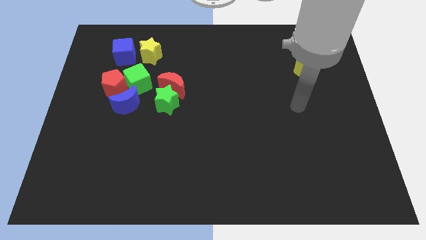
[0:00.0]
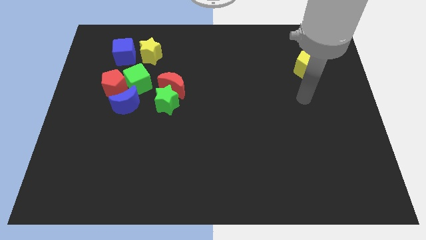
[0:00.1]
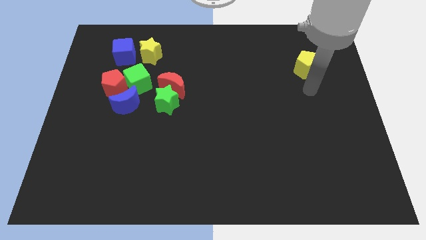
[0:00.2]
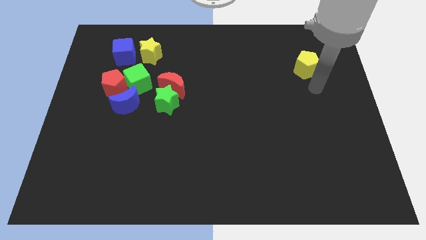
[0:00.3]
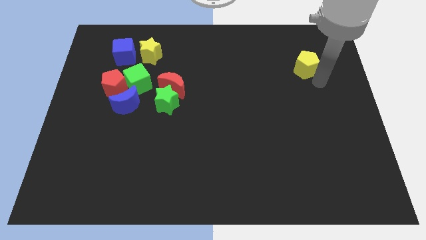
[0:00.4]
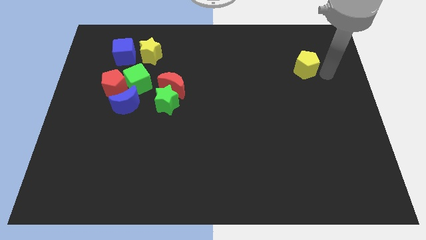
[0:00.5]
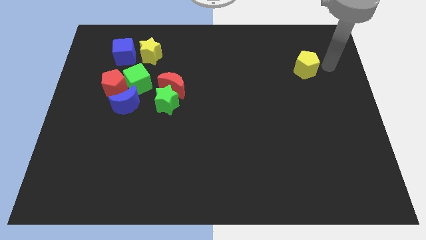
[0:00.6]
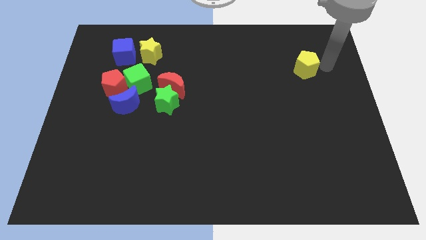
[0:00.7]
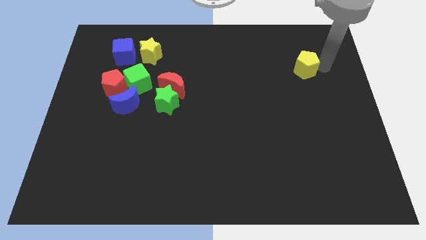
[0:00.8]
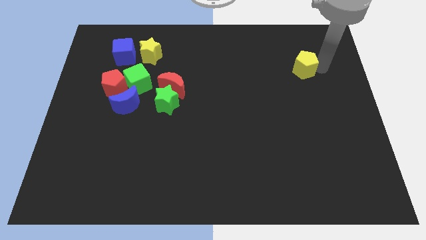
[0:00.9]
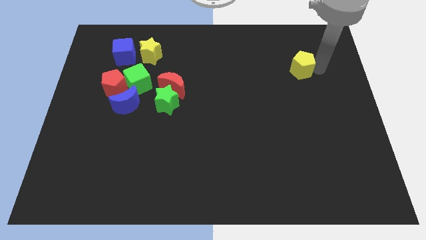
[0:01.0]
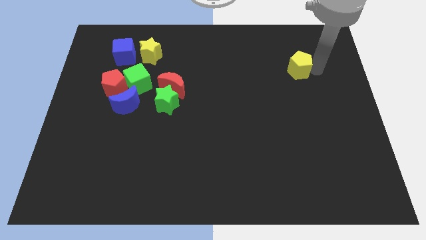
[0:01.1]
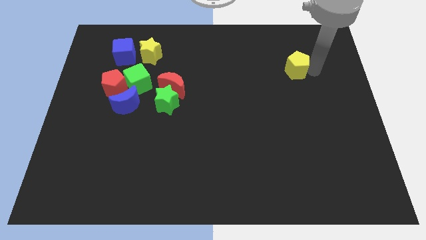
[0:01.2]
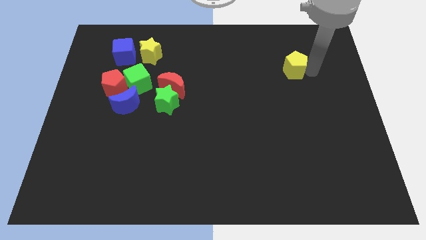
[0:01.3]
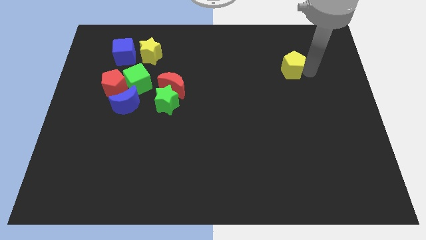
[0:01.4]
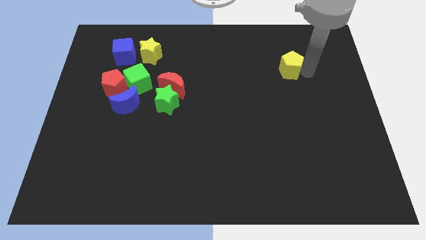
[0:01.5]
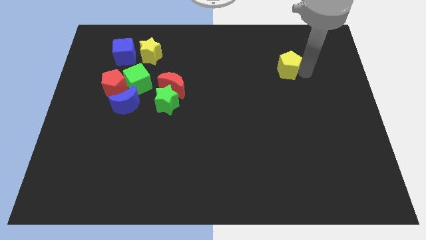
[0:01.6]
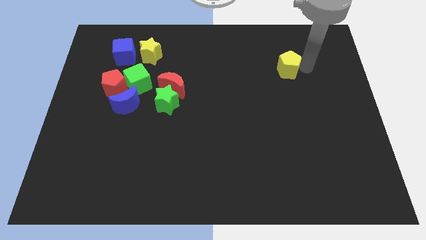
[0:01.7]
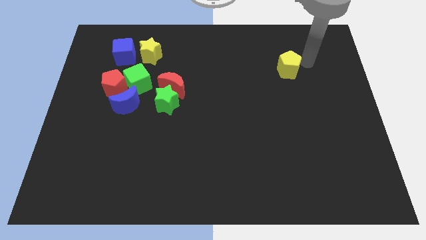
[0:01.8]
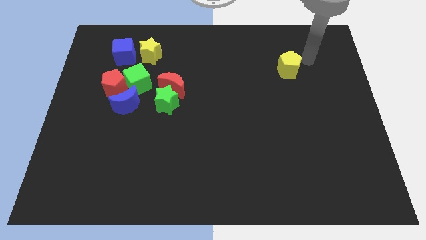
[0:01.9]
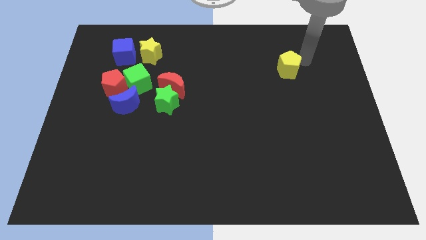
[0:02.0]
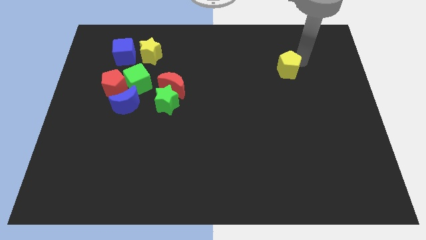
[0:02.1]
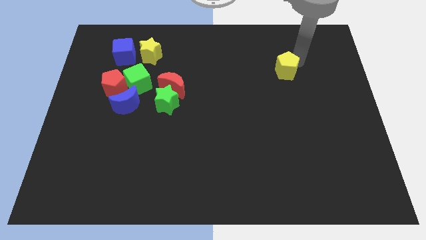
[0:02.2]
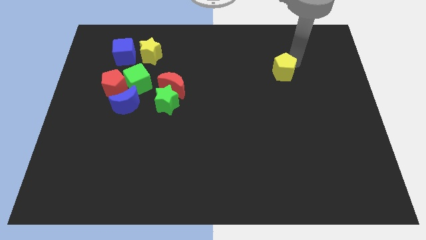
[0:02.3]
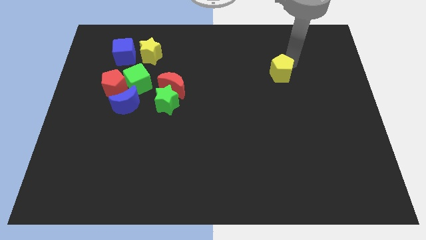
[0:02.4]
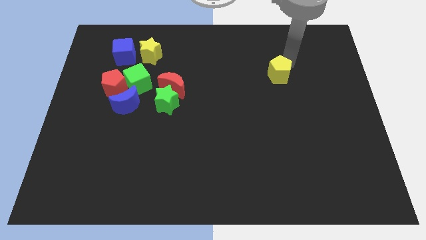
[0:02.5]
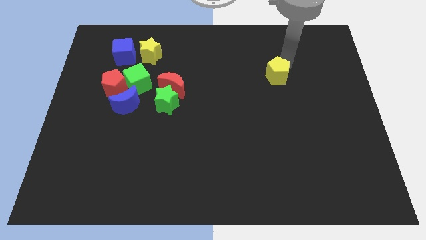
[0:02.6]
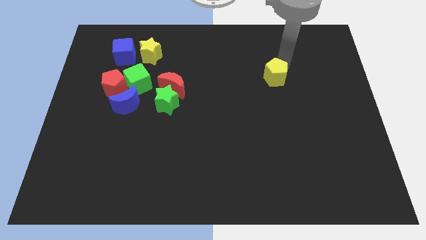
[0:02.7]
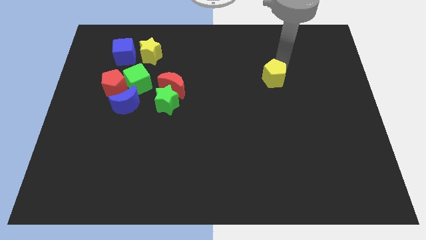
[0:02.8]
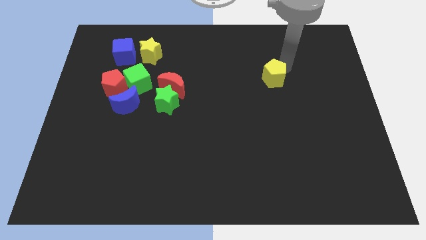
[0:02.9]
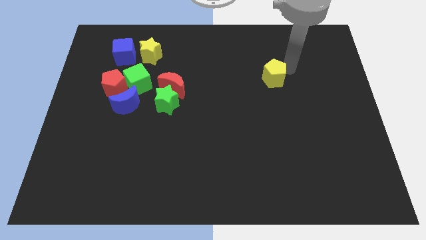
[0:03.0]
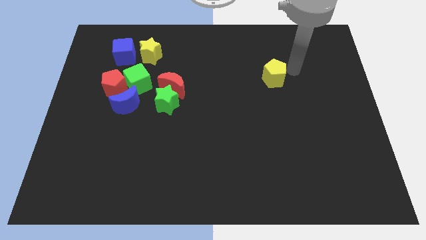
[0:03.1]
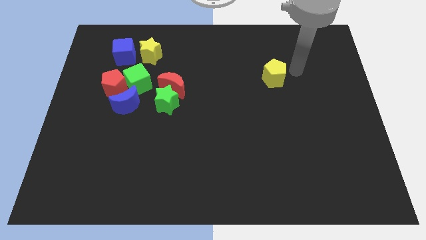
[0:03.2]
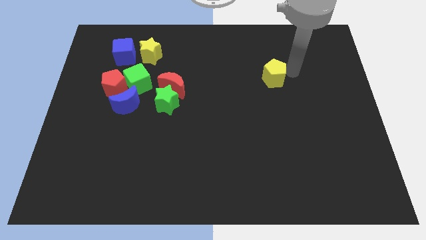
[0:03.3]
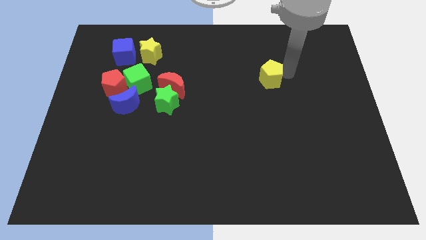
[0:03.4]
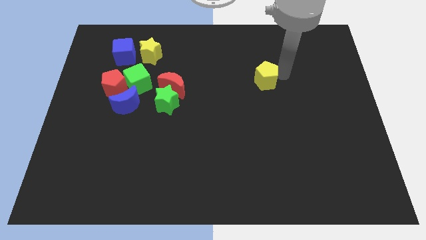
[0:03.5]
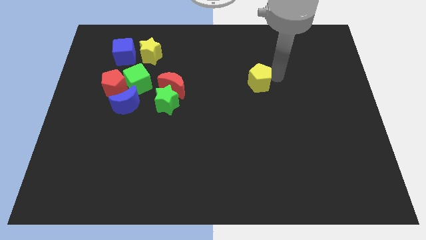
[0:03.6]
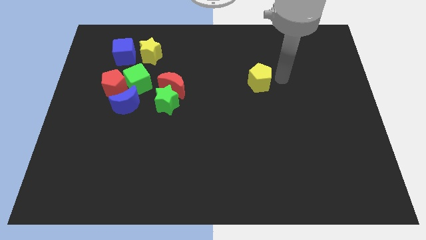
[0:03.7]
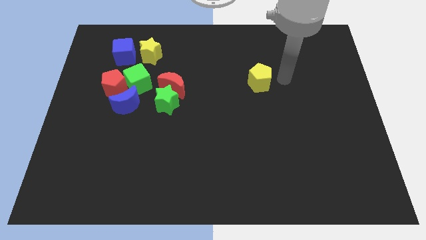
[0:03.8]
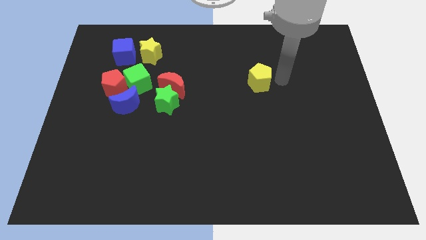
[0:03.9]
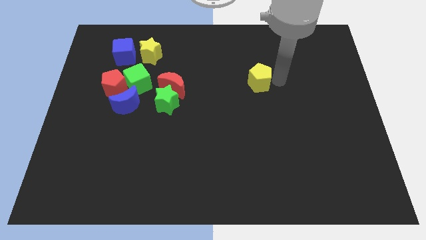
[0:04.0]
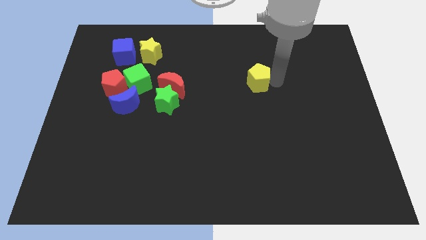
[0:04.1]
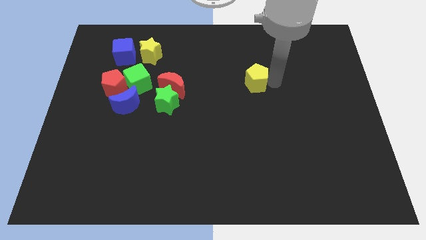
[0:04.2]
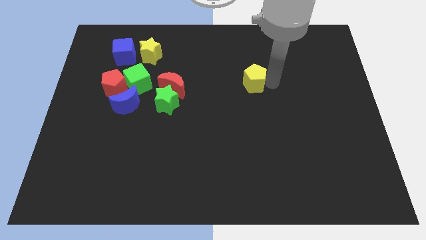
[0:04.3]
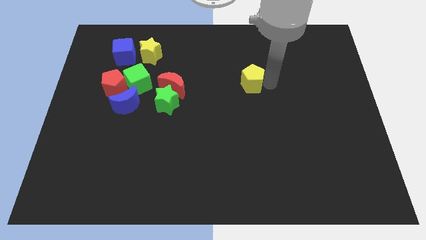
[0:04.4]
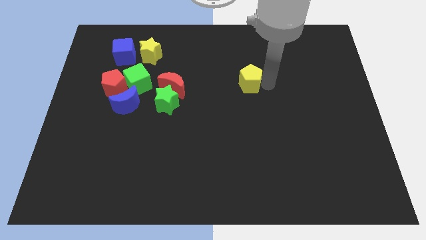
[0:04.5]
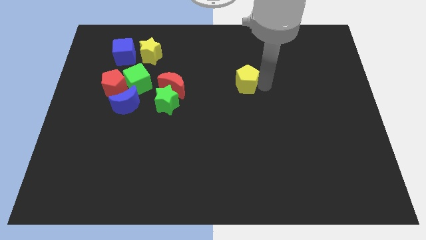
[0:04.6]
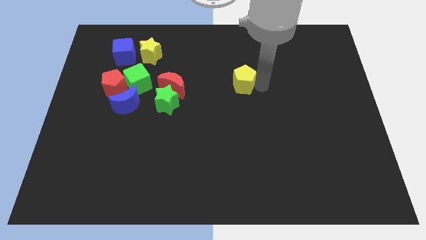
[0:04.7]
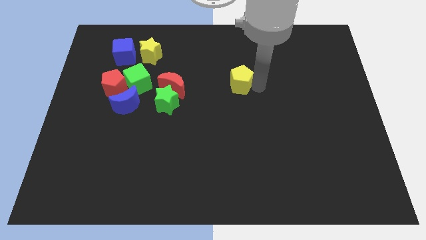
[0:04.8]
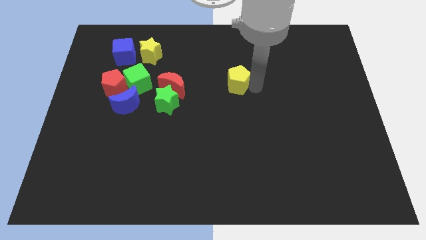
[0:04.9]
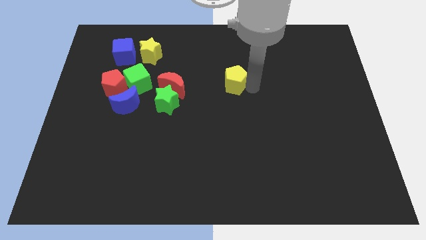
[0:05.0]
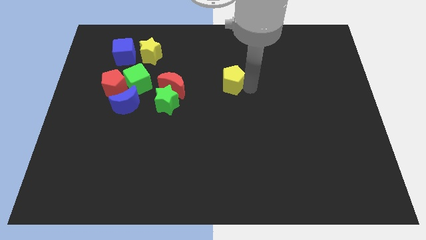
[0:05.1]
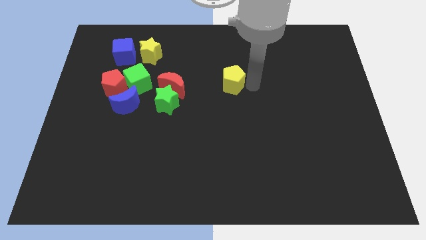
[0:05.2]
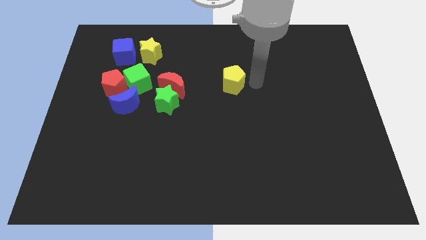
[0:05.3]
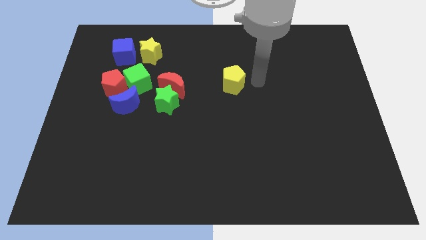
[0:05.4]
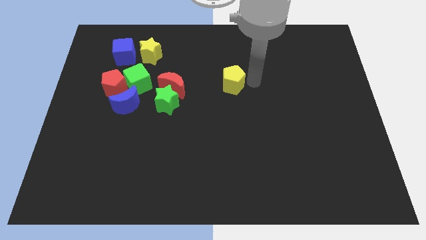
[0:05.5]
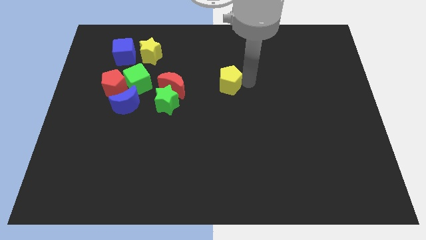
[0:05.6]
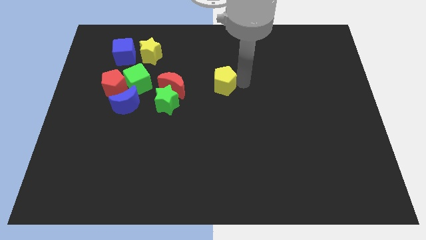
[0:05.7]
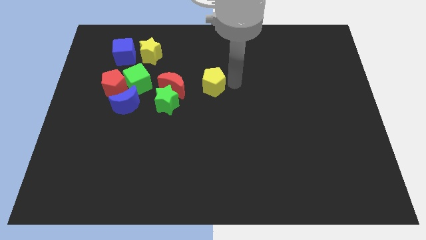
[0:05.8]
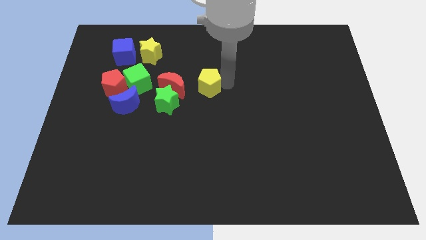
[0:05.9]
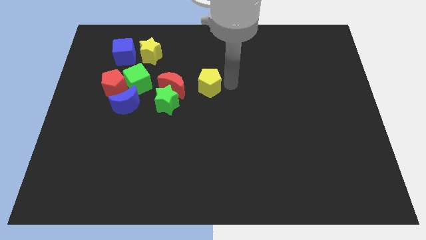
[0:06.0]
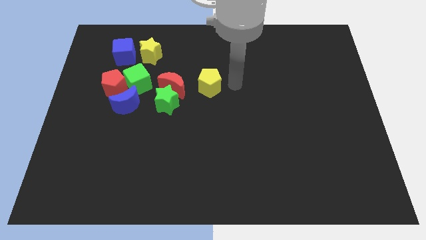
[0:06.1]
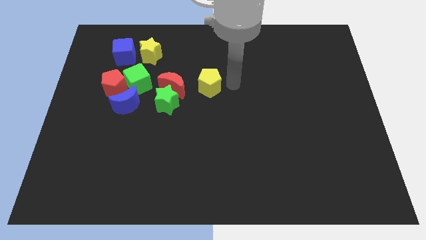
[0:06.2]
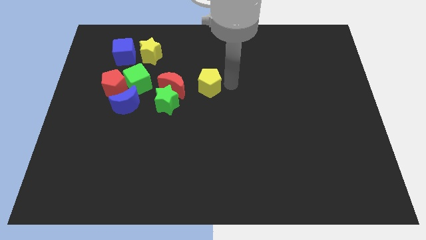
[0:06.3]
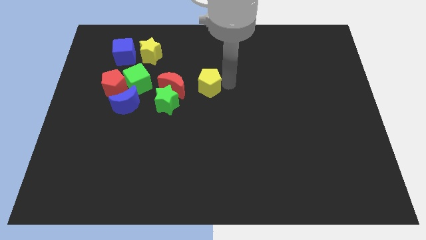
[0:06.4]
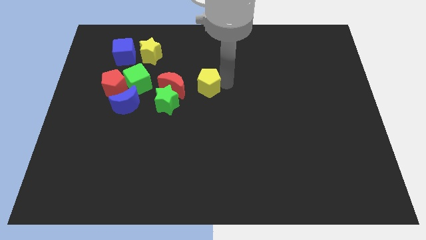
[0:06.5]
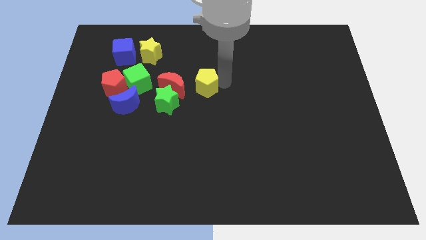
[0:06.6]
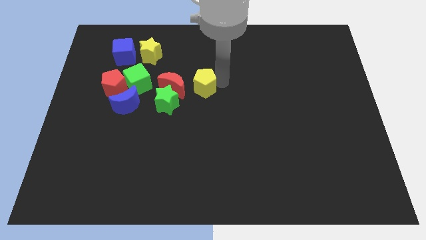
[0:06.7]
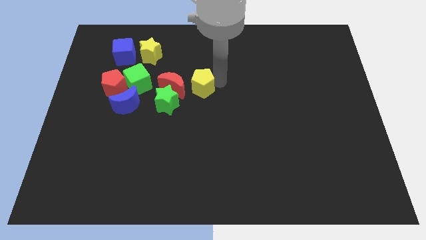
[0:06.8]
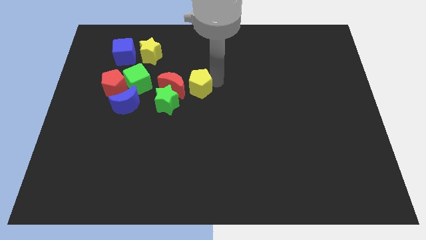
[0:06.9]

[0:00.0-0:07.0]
slide the yellow pentagon towards the red moon
